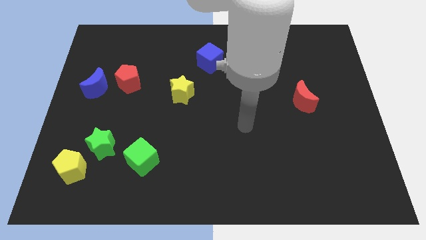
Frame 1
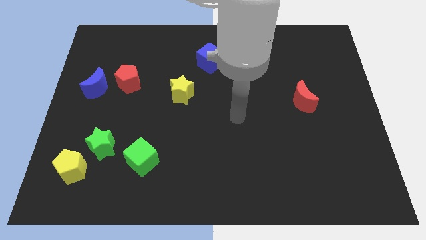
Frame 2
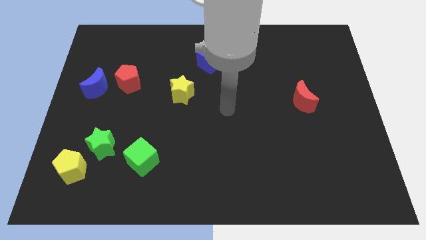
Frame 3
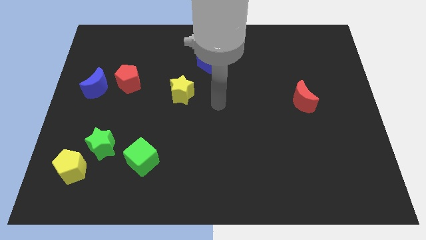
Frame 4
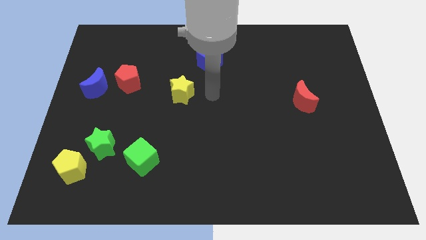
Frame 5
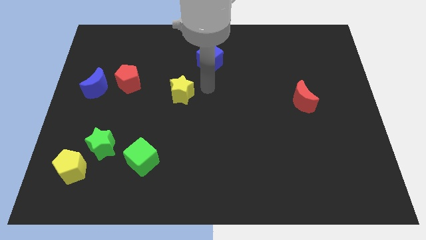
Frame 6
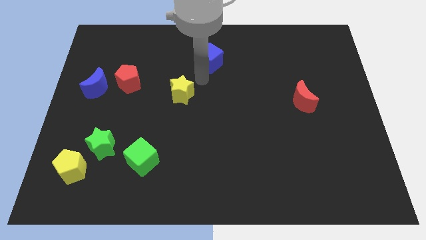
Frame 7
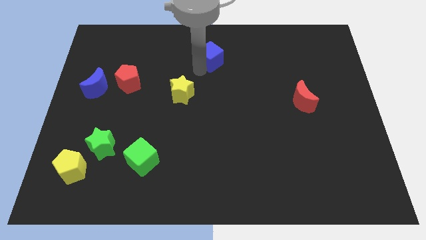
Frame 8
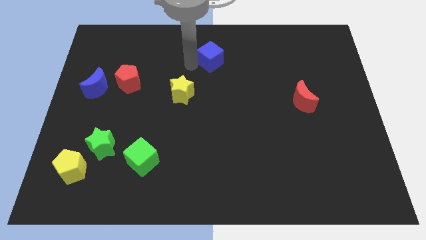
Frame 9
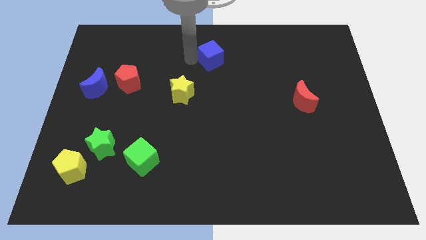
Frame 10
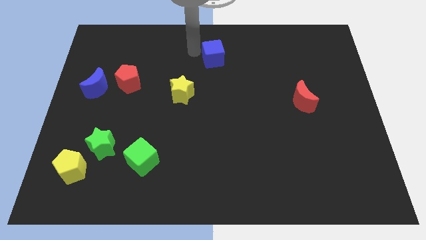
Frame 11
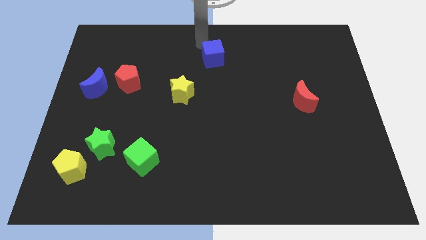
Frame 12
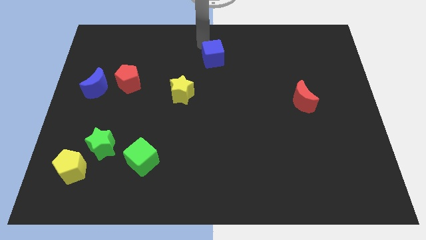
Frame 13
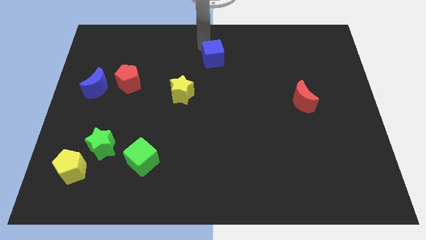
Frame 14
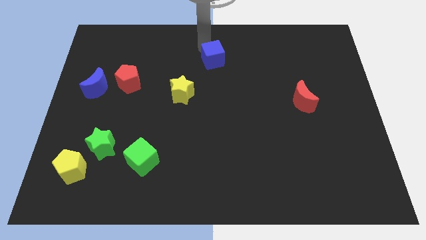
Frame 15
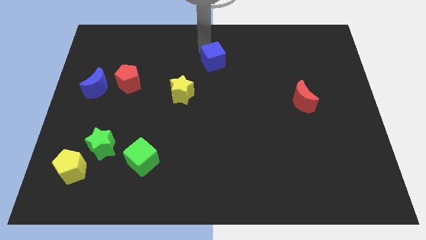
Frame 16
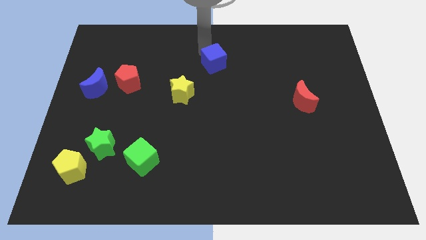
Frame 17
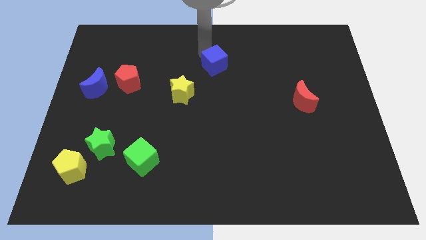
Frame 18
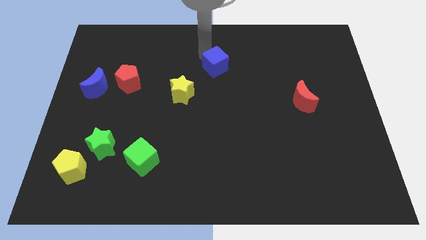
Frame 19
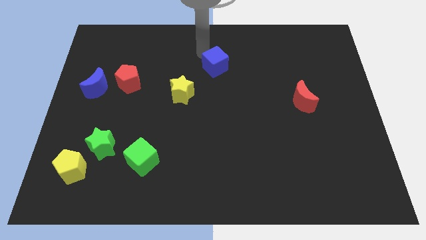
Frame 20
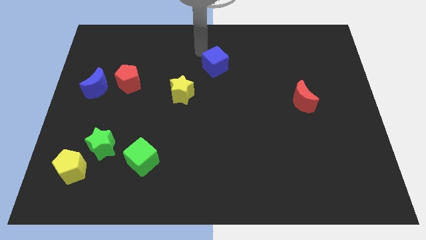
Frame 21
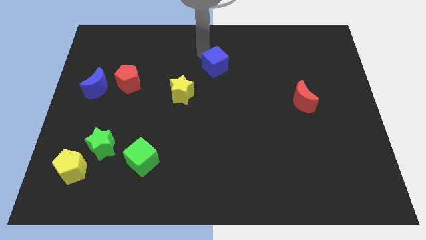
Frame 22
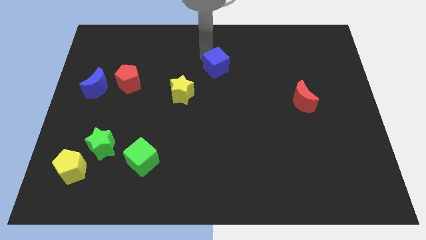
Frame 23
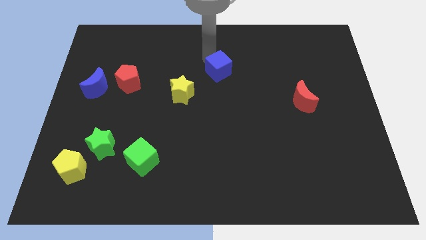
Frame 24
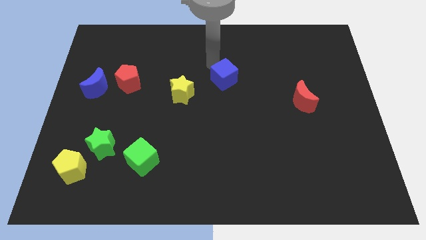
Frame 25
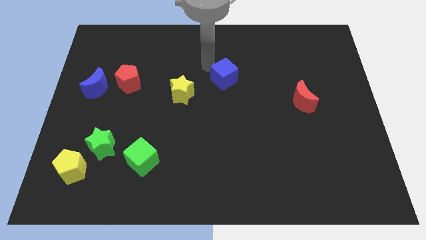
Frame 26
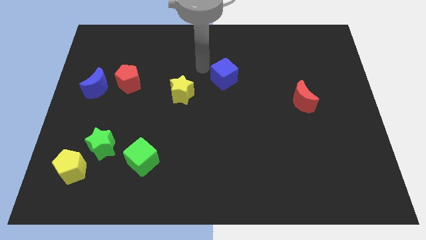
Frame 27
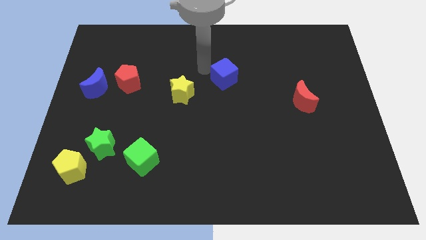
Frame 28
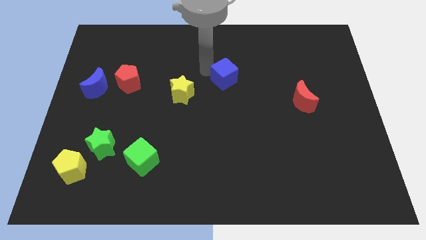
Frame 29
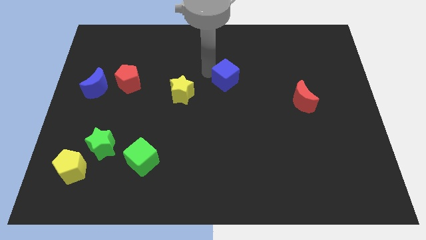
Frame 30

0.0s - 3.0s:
push the blue cube somewhat diagonally downwards and to the right

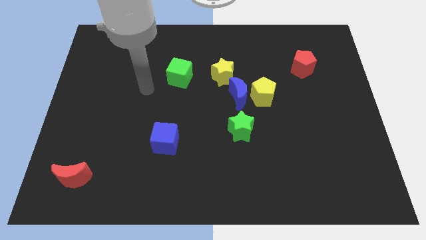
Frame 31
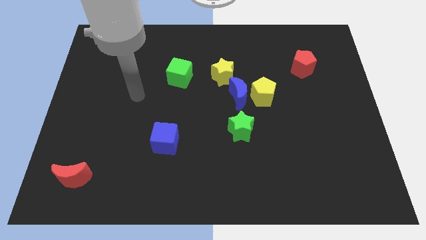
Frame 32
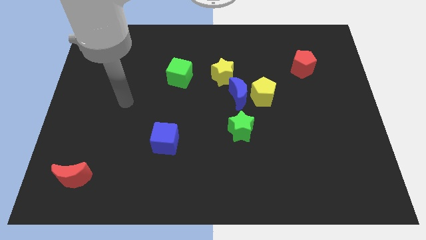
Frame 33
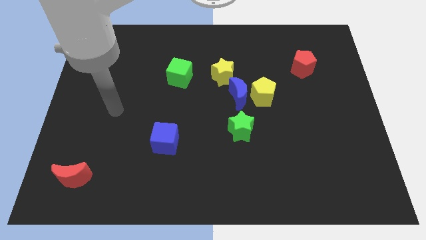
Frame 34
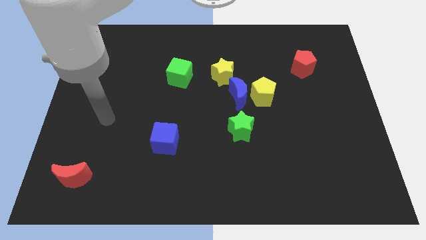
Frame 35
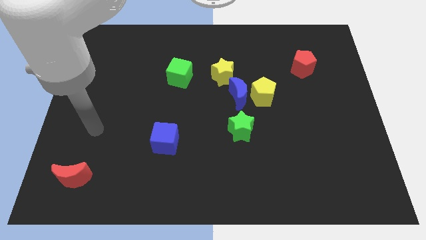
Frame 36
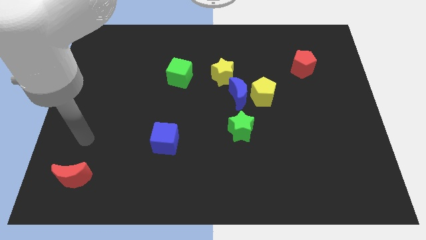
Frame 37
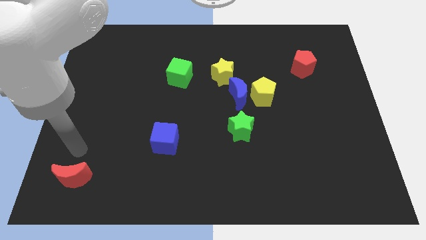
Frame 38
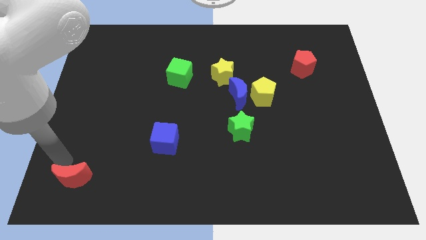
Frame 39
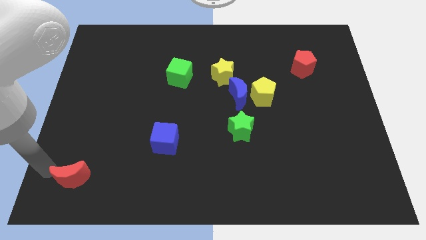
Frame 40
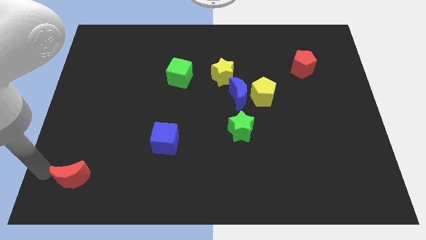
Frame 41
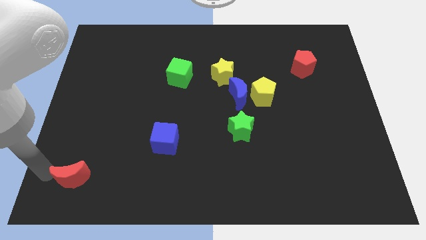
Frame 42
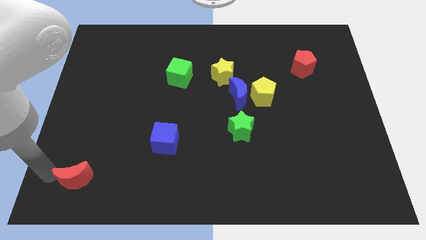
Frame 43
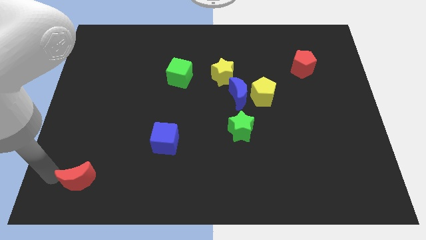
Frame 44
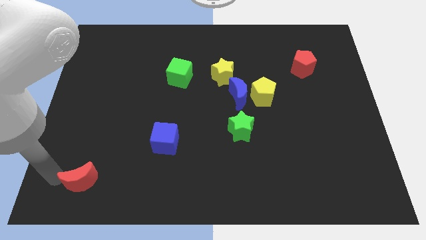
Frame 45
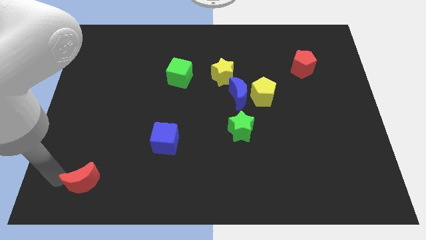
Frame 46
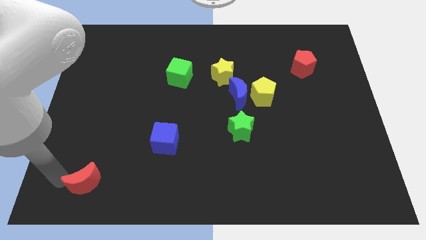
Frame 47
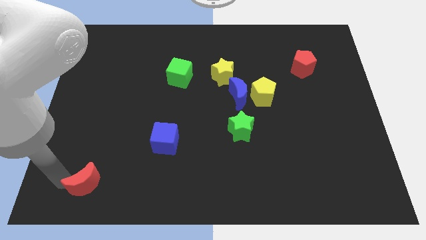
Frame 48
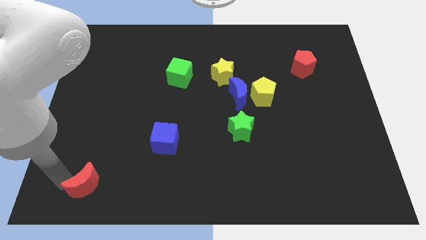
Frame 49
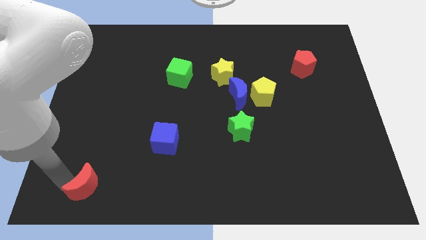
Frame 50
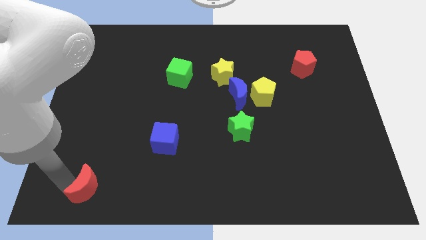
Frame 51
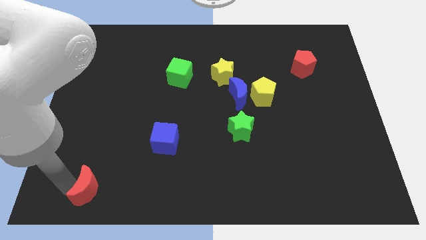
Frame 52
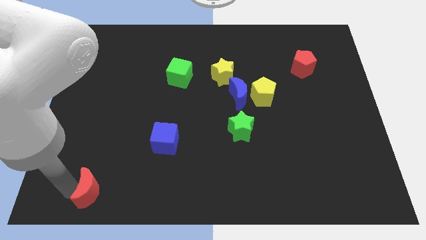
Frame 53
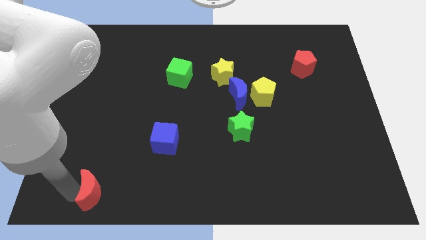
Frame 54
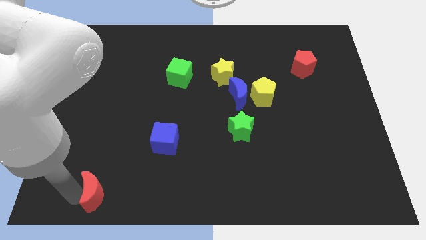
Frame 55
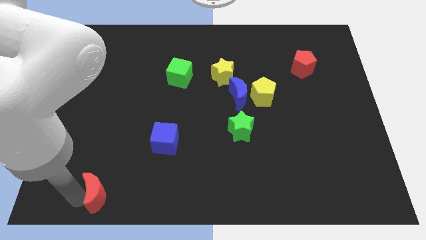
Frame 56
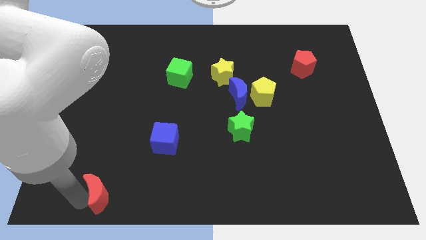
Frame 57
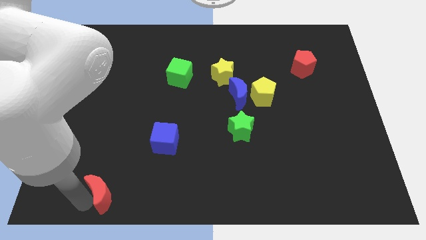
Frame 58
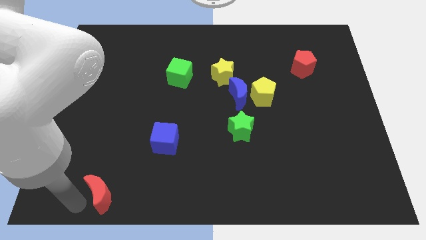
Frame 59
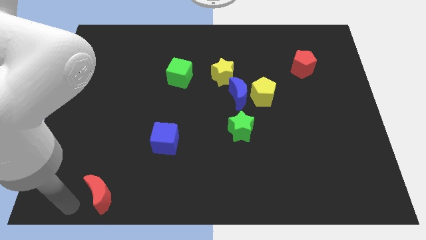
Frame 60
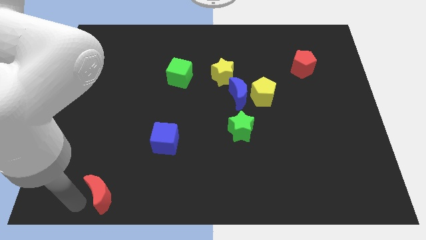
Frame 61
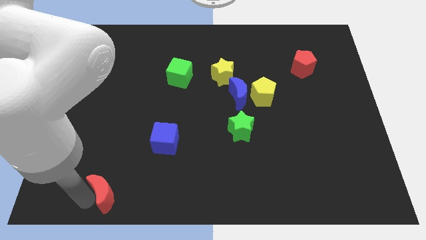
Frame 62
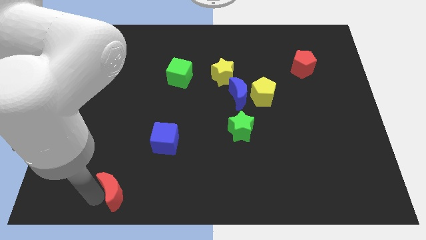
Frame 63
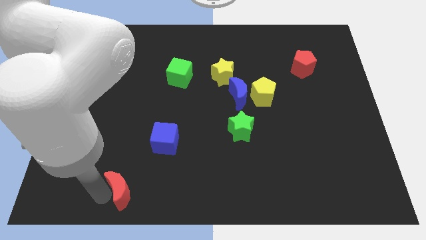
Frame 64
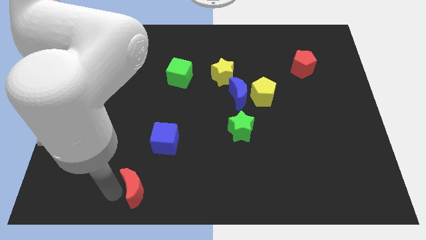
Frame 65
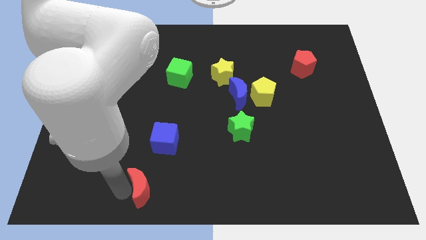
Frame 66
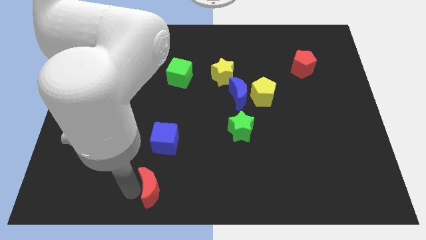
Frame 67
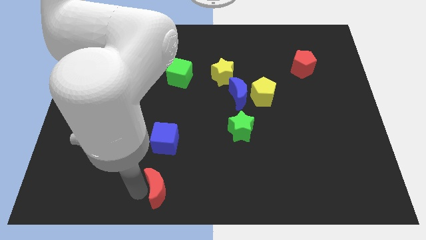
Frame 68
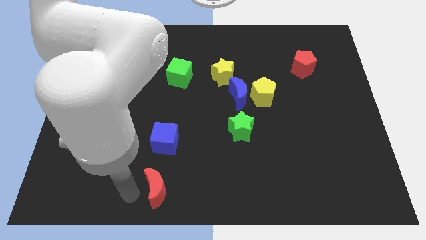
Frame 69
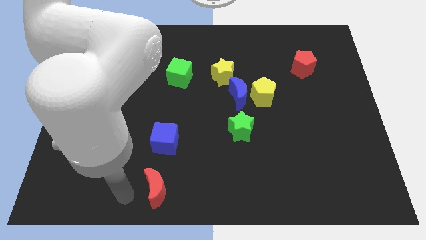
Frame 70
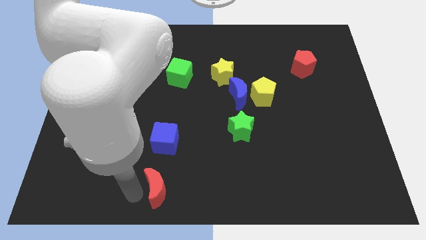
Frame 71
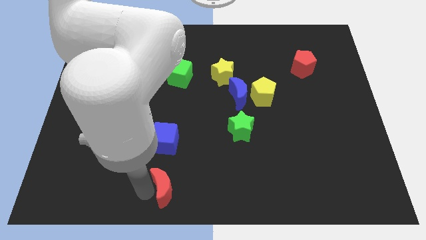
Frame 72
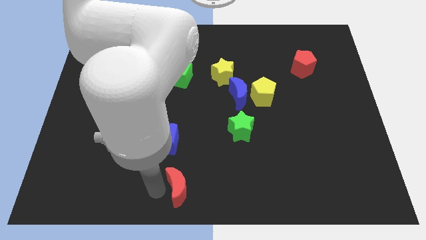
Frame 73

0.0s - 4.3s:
push the red moon right

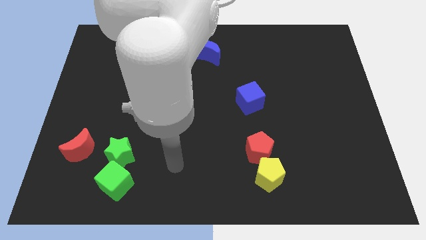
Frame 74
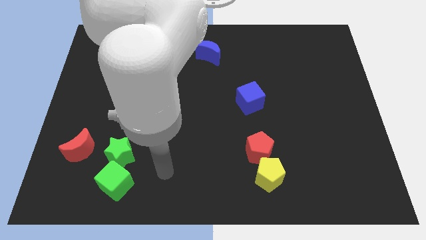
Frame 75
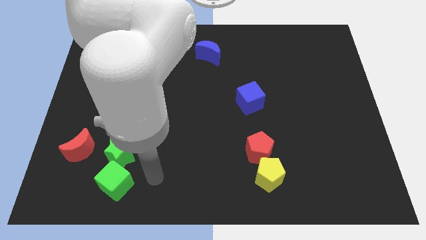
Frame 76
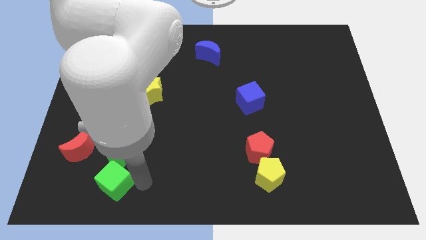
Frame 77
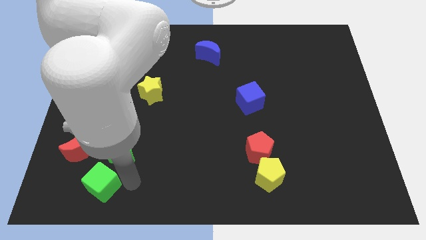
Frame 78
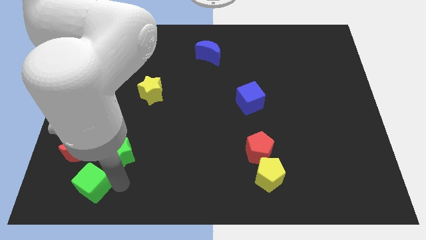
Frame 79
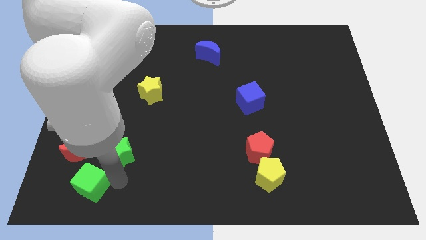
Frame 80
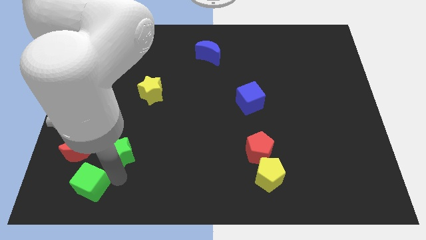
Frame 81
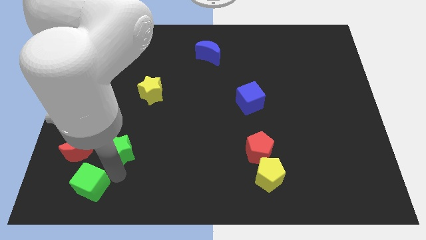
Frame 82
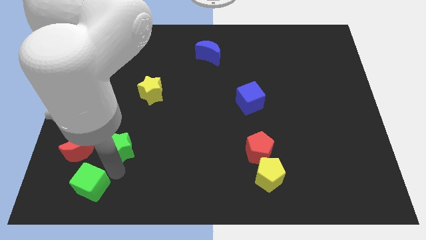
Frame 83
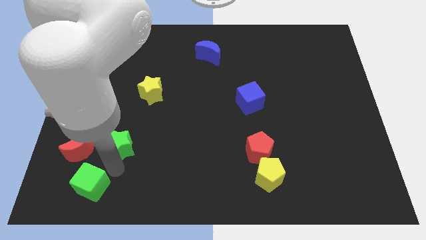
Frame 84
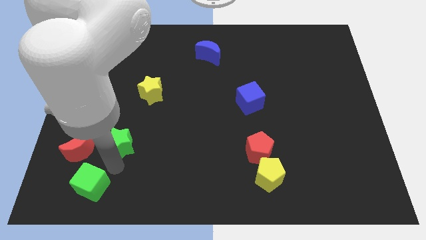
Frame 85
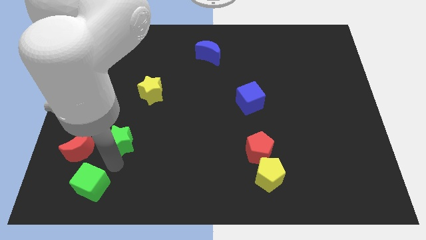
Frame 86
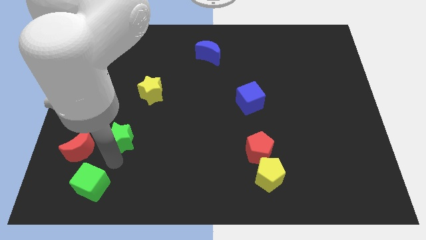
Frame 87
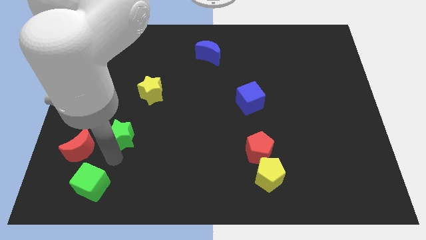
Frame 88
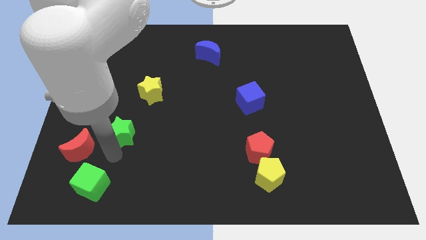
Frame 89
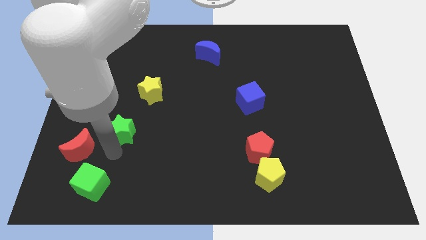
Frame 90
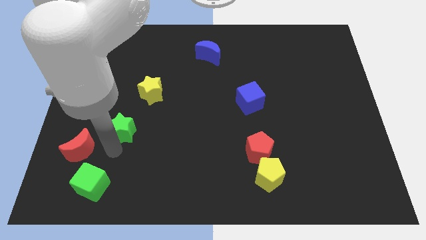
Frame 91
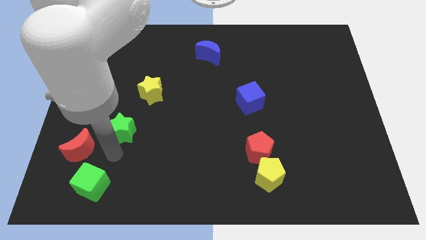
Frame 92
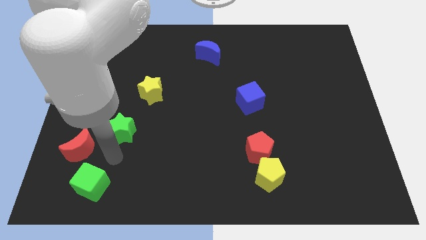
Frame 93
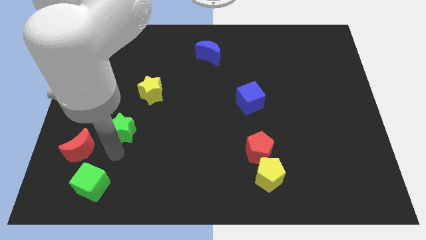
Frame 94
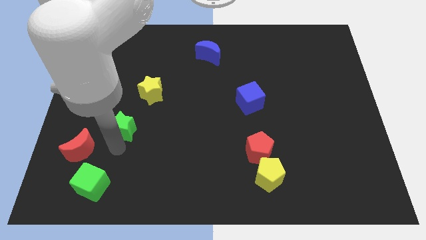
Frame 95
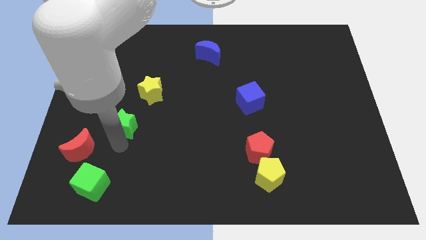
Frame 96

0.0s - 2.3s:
slide the green star a little bit up
